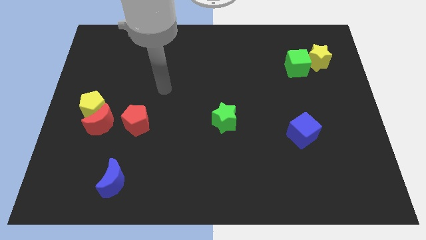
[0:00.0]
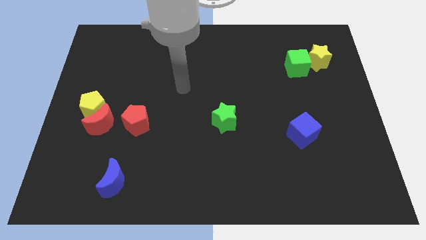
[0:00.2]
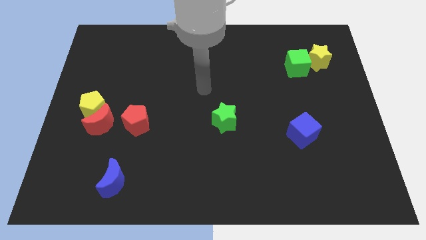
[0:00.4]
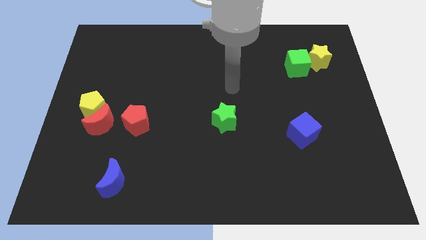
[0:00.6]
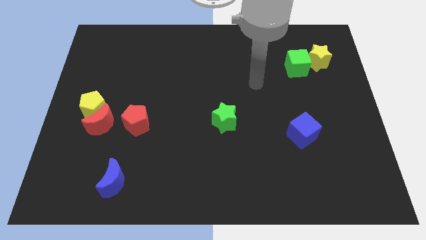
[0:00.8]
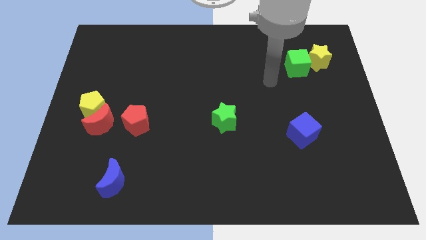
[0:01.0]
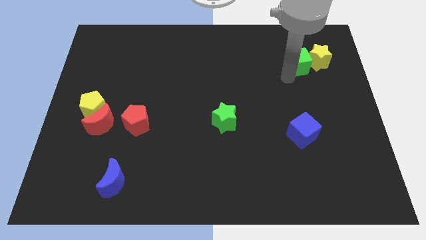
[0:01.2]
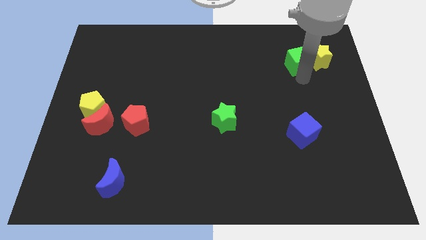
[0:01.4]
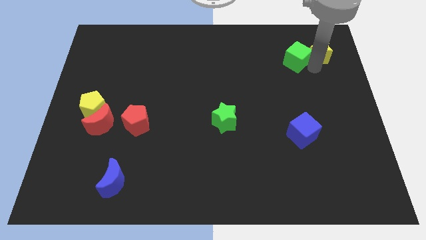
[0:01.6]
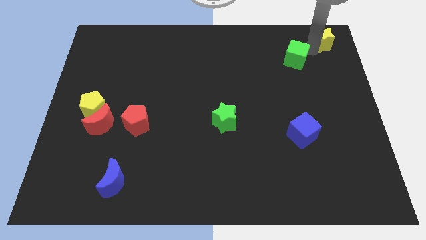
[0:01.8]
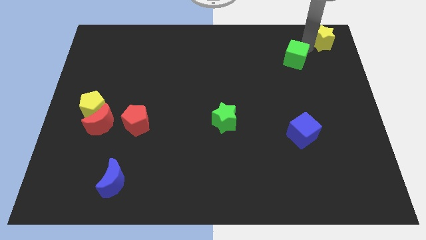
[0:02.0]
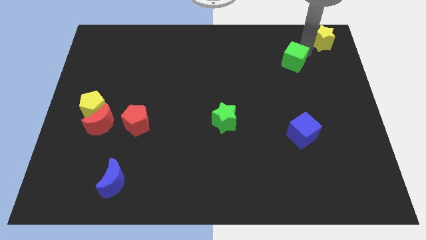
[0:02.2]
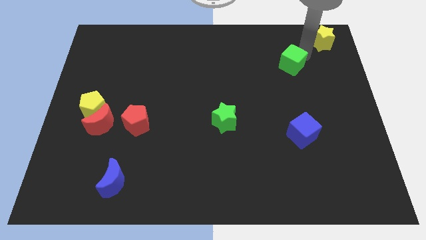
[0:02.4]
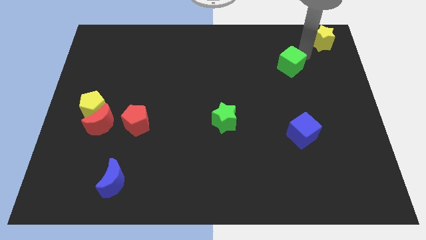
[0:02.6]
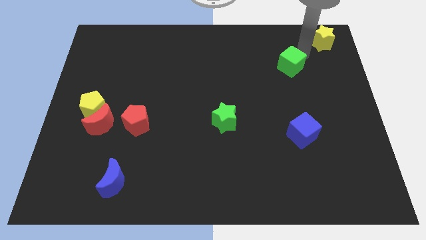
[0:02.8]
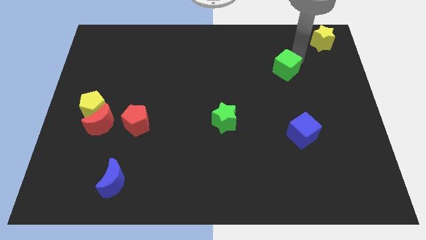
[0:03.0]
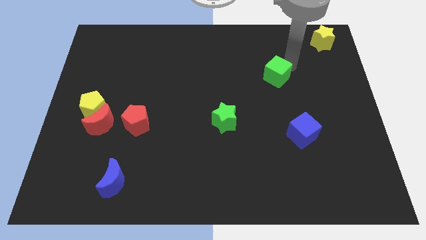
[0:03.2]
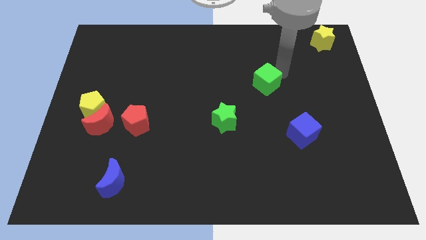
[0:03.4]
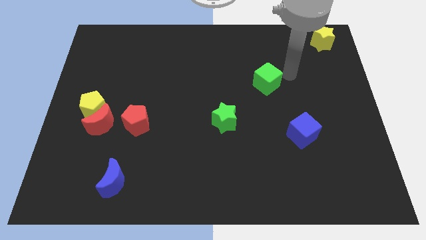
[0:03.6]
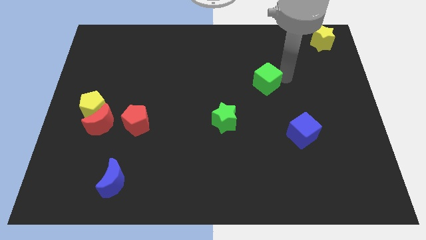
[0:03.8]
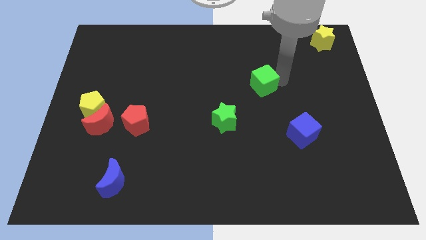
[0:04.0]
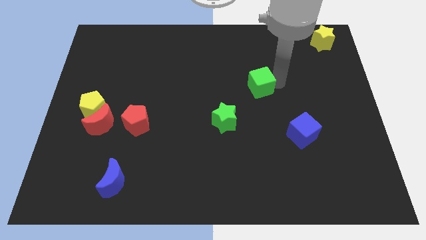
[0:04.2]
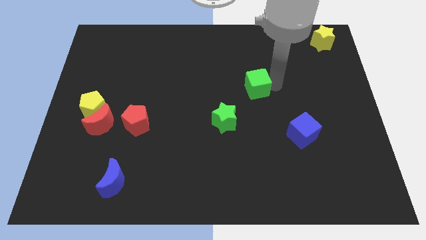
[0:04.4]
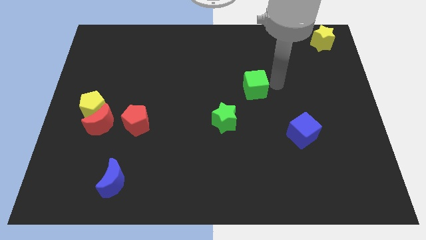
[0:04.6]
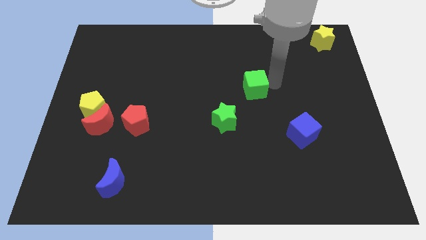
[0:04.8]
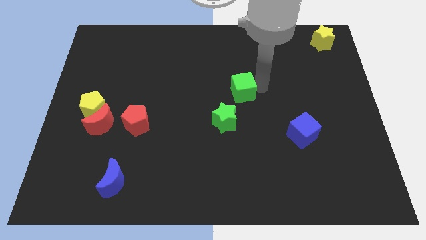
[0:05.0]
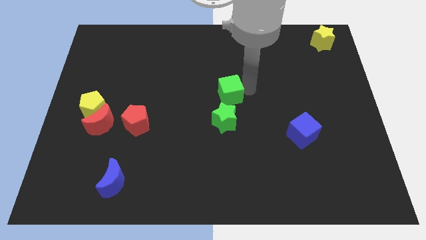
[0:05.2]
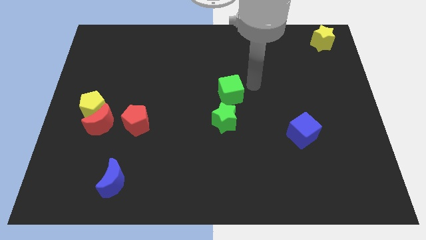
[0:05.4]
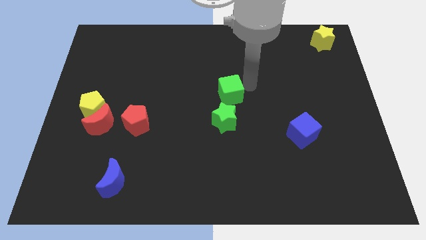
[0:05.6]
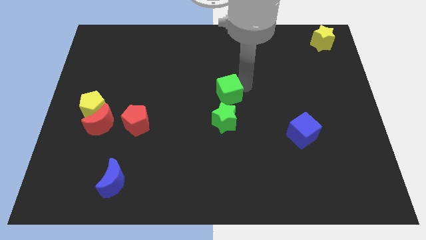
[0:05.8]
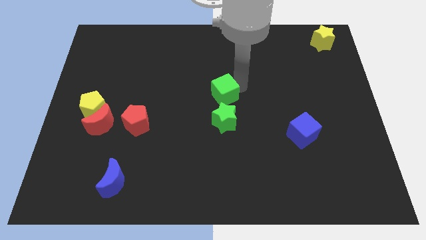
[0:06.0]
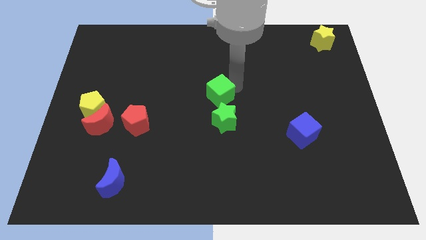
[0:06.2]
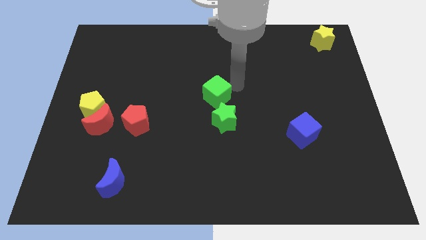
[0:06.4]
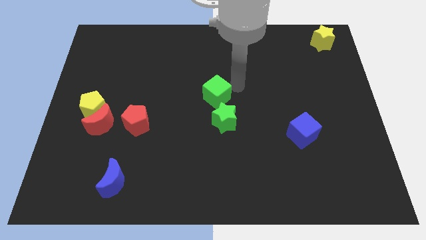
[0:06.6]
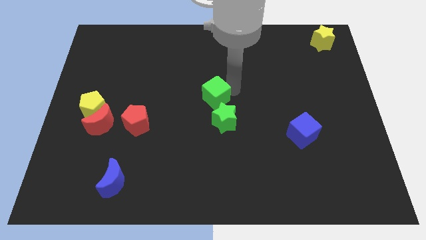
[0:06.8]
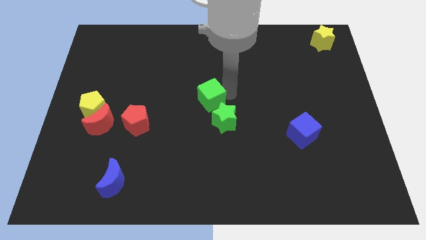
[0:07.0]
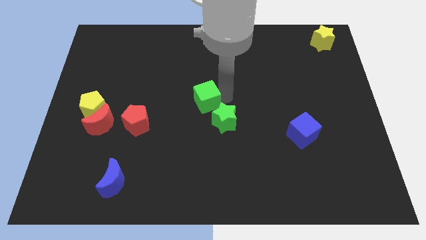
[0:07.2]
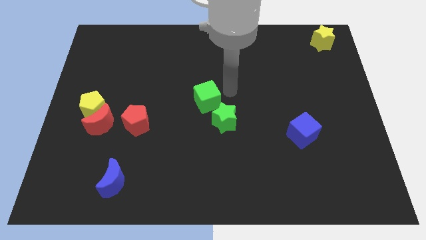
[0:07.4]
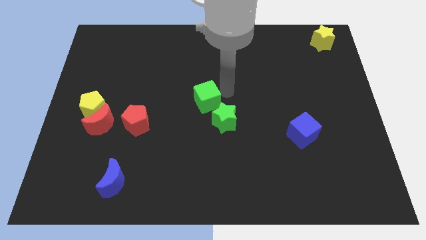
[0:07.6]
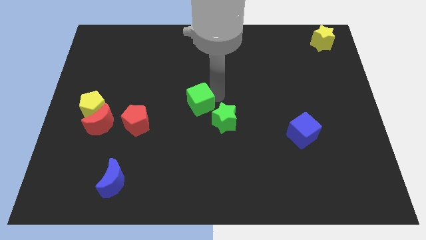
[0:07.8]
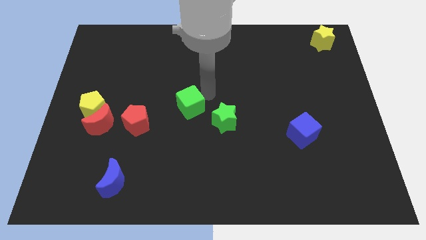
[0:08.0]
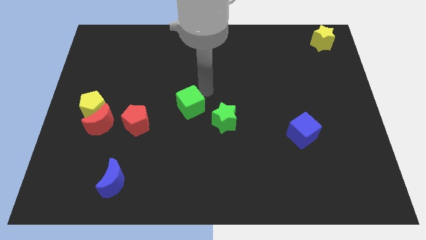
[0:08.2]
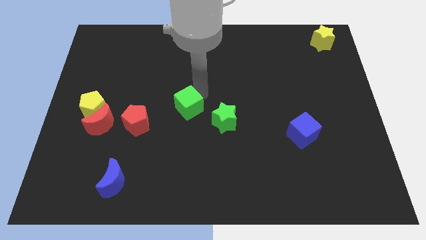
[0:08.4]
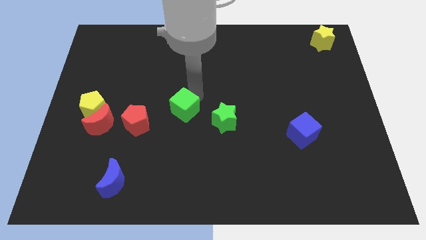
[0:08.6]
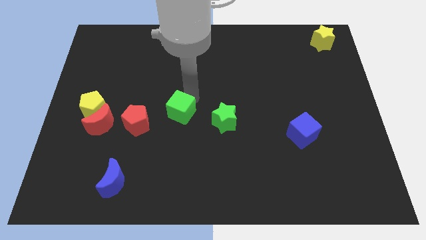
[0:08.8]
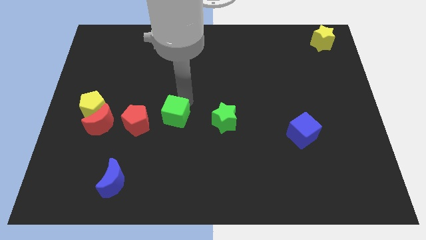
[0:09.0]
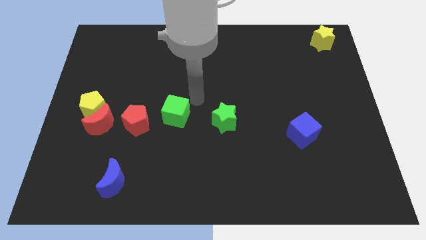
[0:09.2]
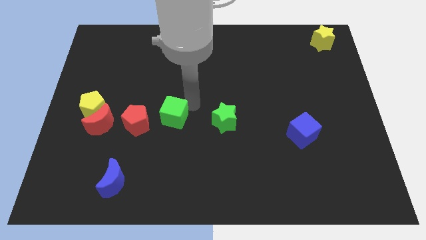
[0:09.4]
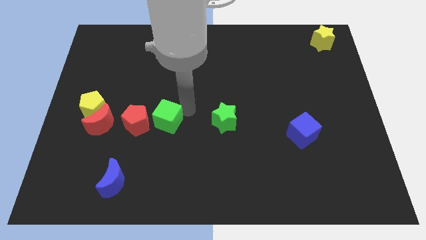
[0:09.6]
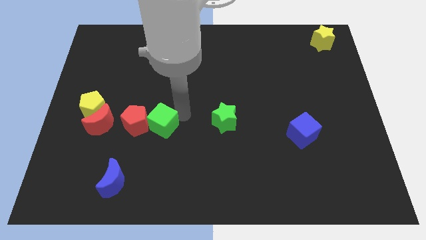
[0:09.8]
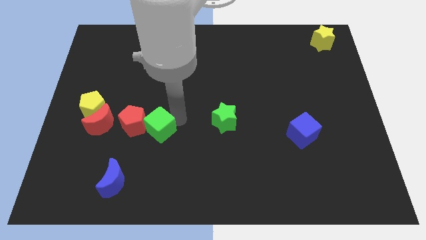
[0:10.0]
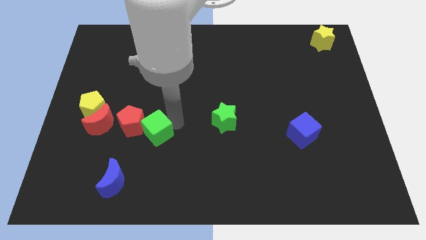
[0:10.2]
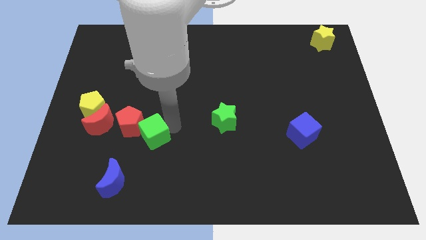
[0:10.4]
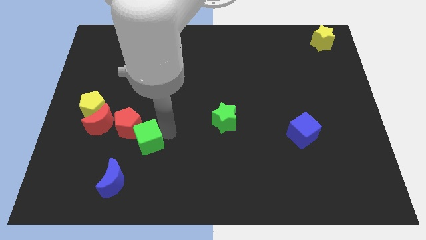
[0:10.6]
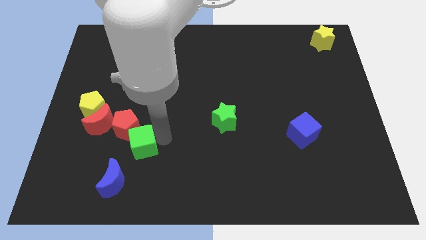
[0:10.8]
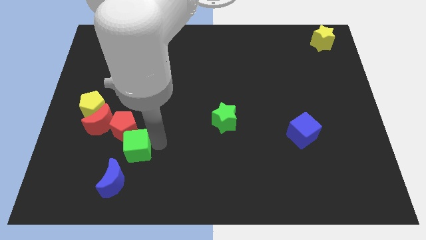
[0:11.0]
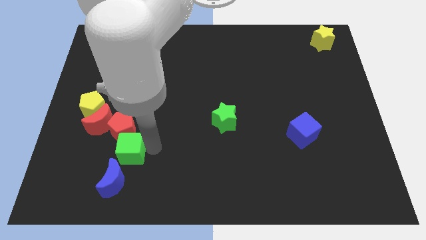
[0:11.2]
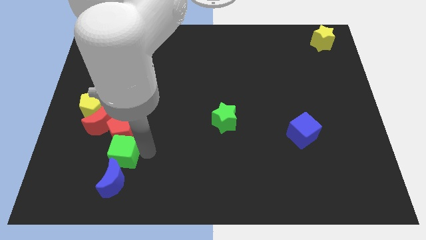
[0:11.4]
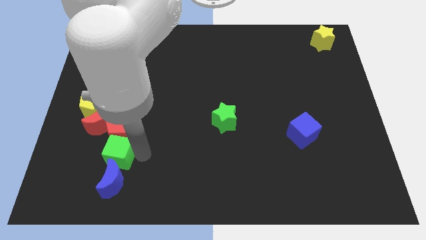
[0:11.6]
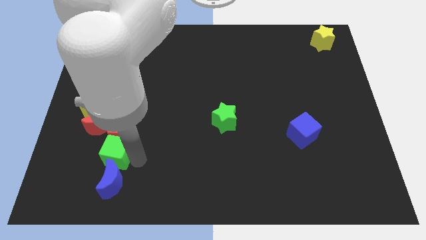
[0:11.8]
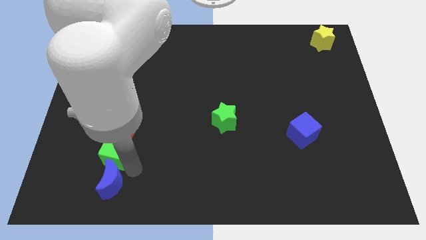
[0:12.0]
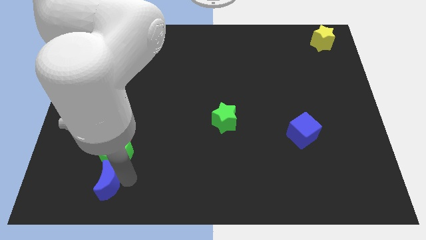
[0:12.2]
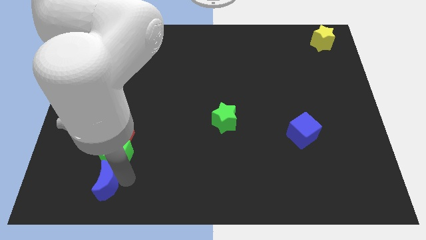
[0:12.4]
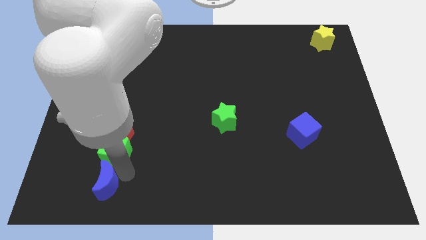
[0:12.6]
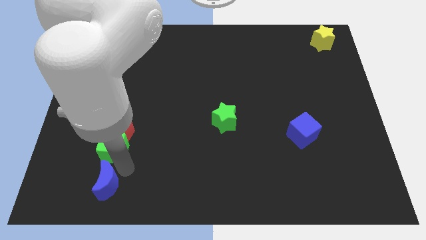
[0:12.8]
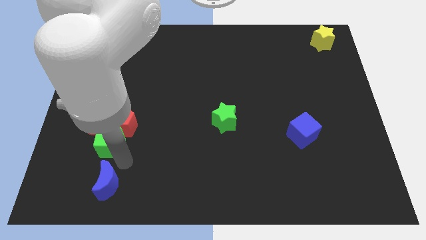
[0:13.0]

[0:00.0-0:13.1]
slide the green cube close to the red moon

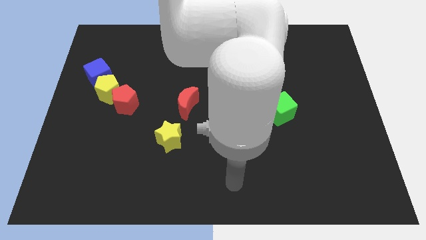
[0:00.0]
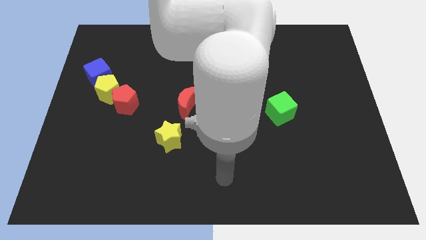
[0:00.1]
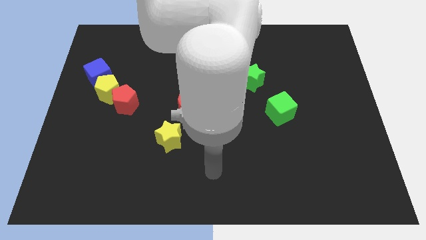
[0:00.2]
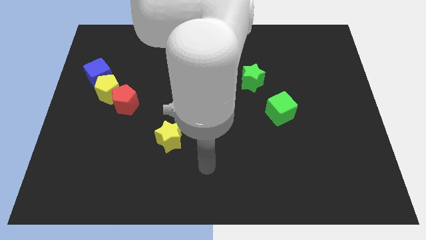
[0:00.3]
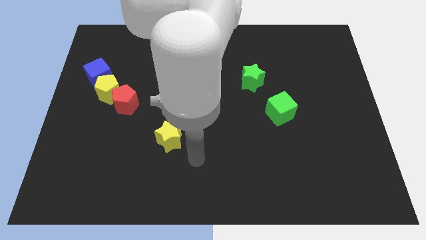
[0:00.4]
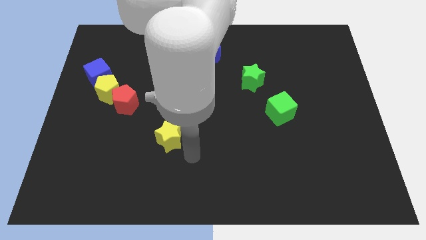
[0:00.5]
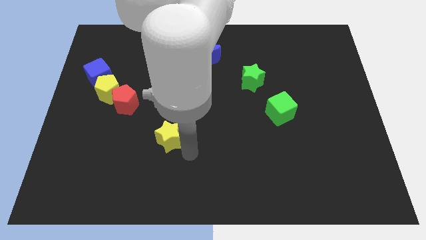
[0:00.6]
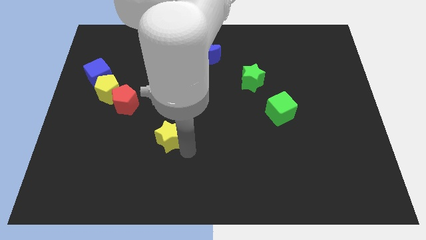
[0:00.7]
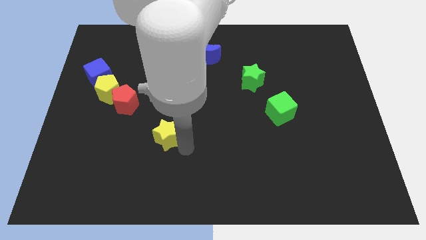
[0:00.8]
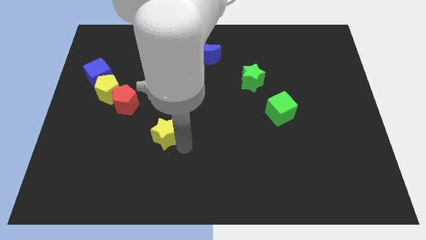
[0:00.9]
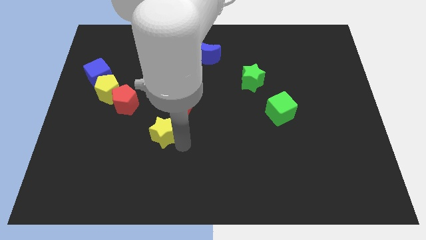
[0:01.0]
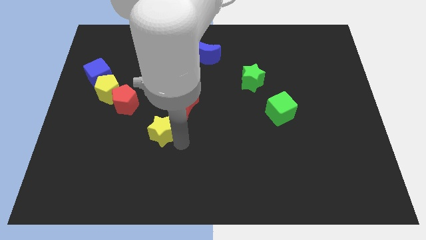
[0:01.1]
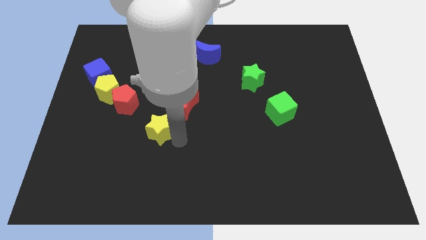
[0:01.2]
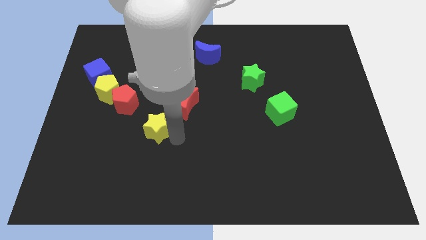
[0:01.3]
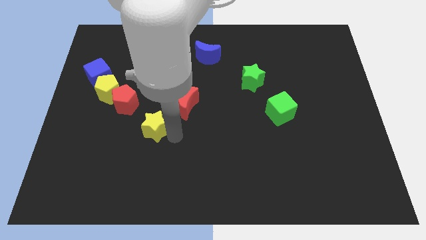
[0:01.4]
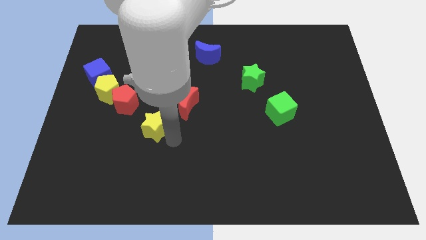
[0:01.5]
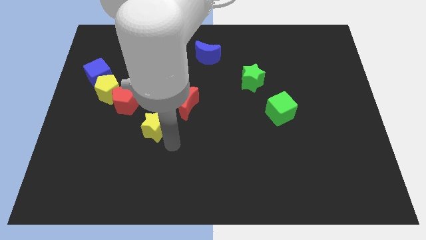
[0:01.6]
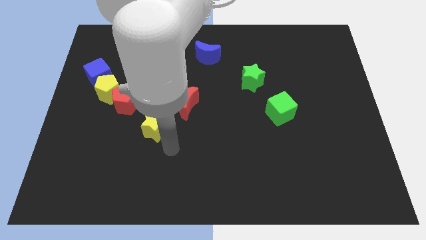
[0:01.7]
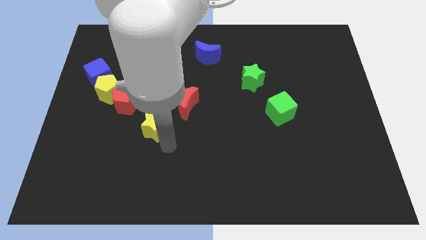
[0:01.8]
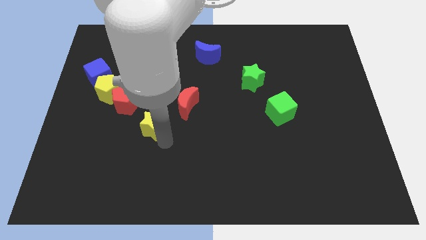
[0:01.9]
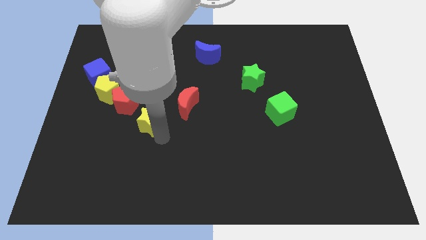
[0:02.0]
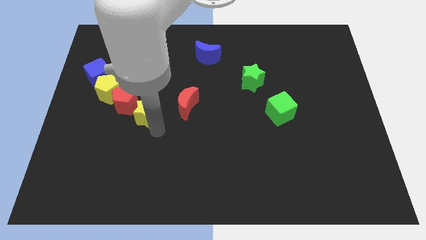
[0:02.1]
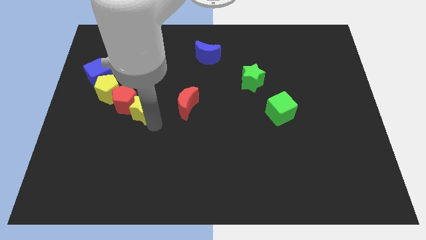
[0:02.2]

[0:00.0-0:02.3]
push the yellow star next to the red pentagon
